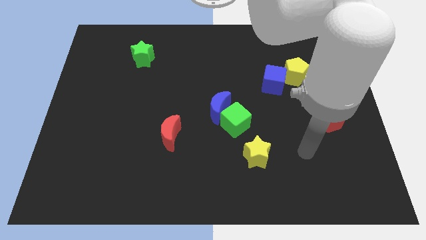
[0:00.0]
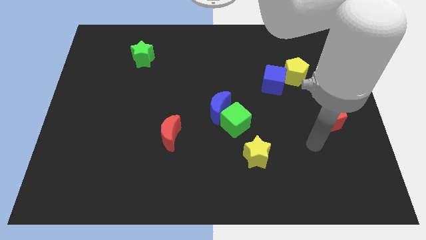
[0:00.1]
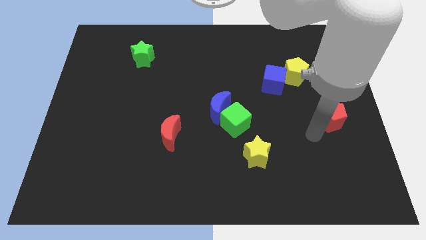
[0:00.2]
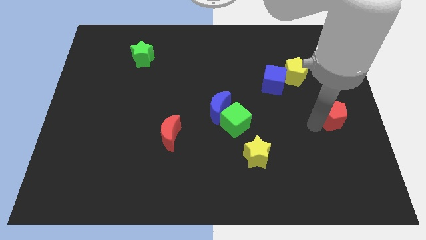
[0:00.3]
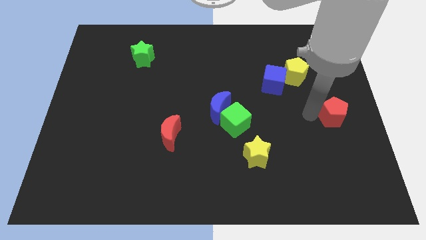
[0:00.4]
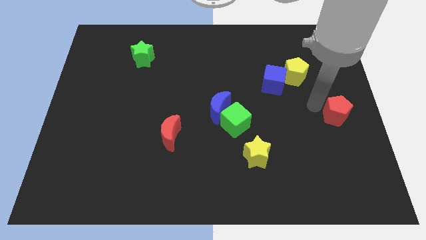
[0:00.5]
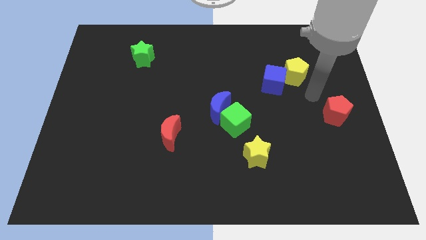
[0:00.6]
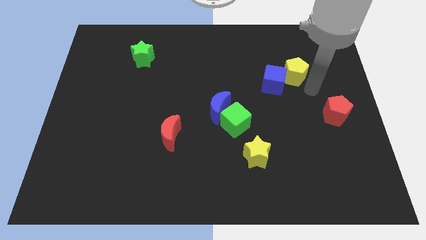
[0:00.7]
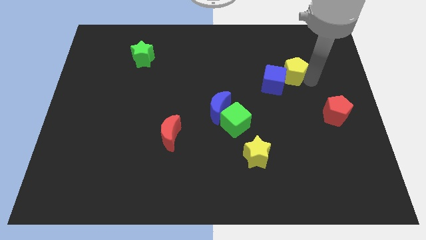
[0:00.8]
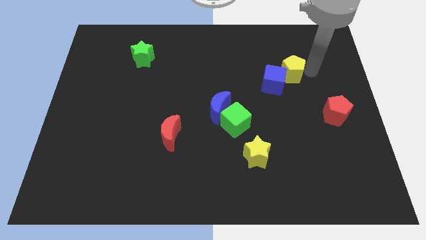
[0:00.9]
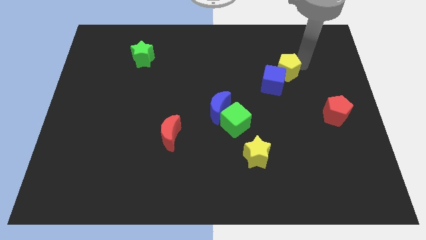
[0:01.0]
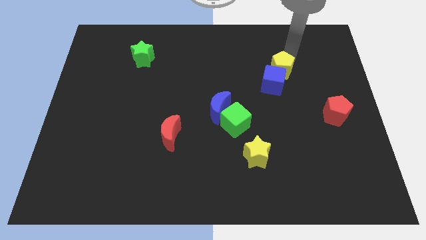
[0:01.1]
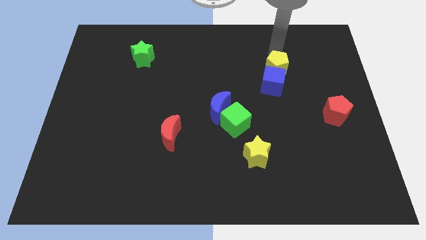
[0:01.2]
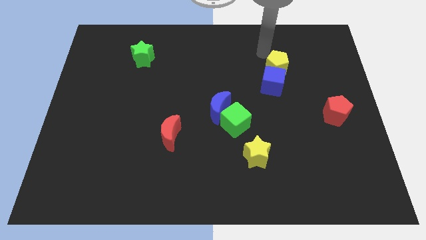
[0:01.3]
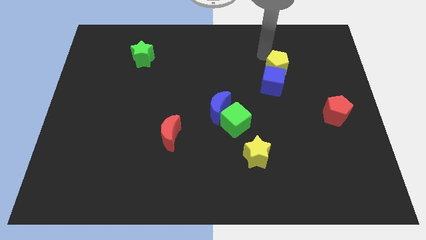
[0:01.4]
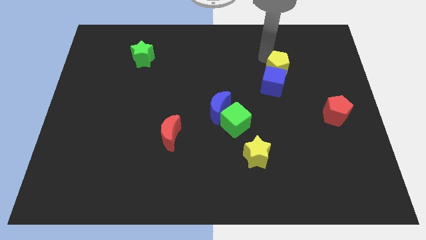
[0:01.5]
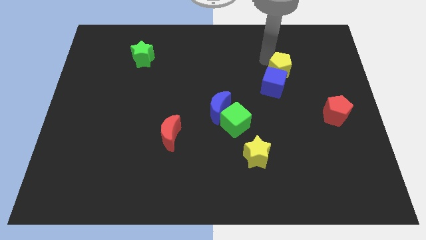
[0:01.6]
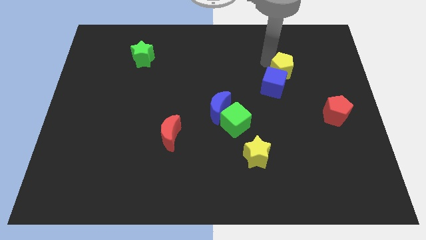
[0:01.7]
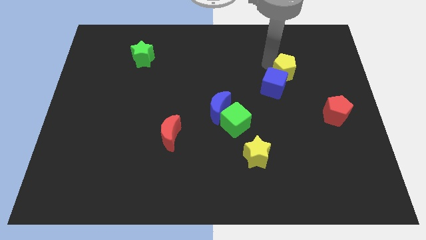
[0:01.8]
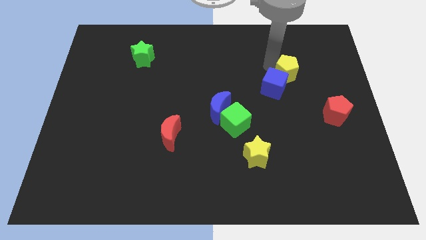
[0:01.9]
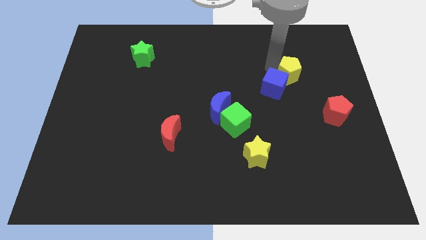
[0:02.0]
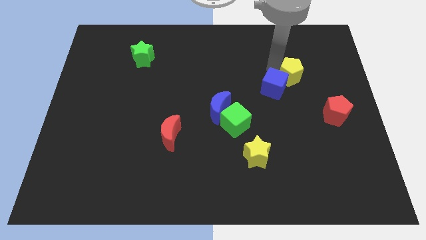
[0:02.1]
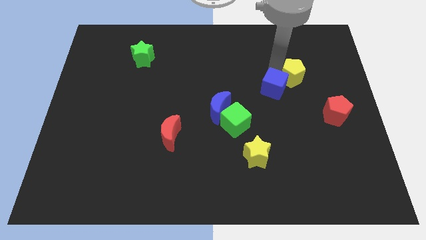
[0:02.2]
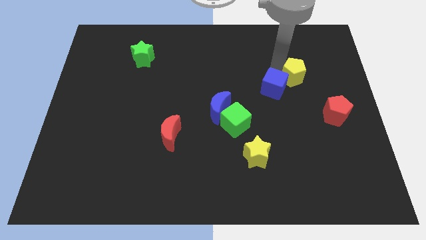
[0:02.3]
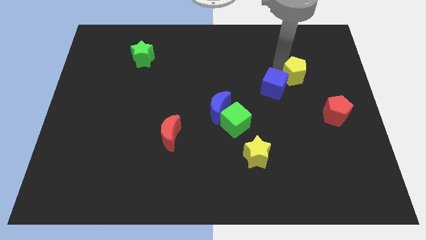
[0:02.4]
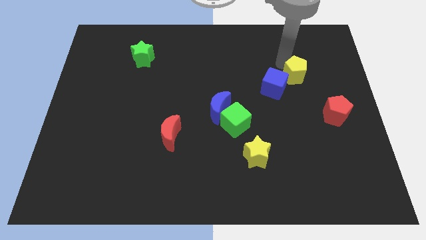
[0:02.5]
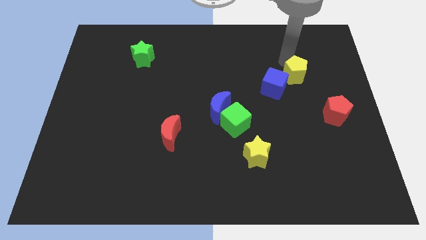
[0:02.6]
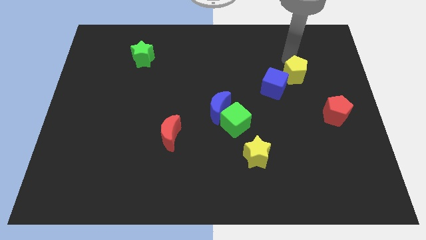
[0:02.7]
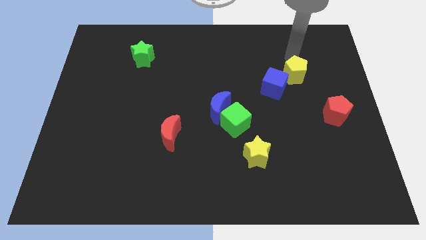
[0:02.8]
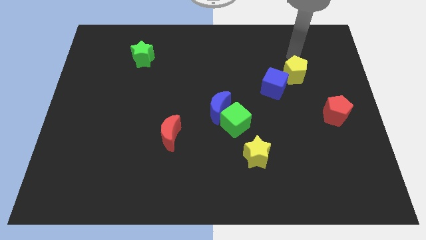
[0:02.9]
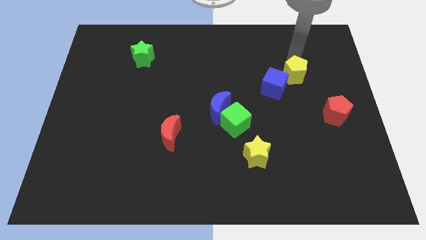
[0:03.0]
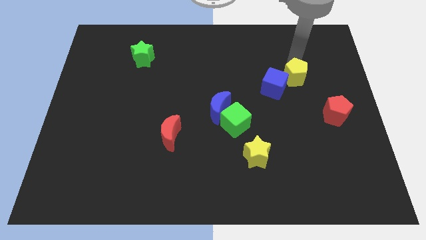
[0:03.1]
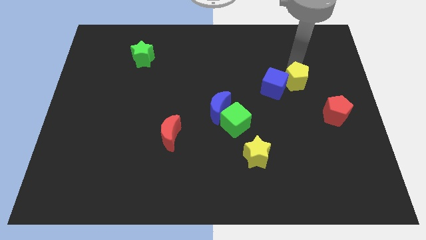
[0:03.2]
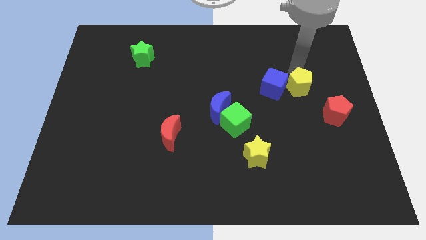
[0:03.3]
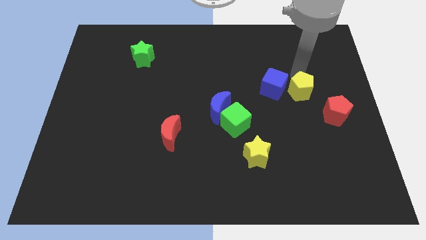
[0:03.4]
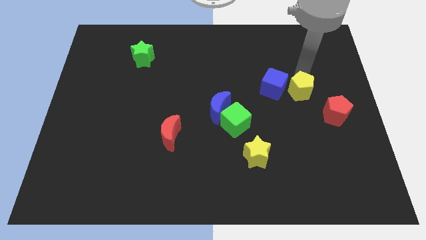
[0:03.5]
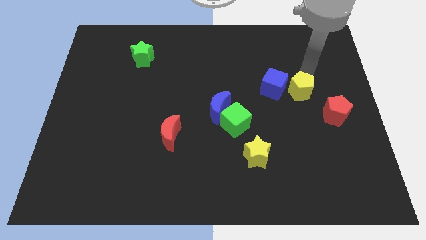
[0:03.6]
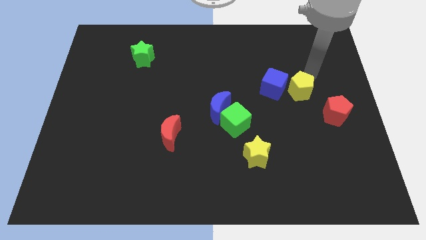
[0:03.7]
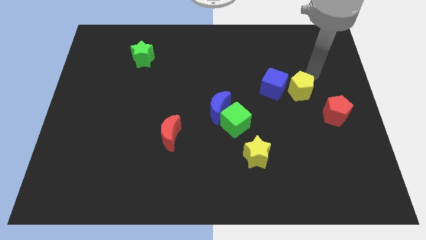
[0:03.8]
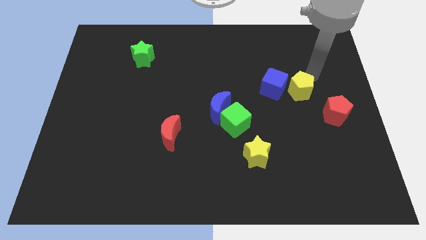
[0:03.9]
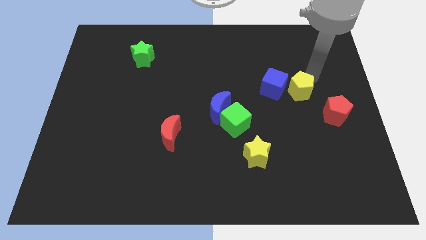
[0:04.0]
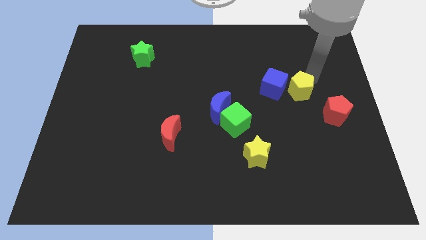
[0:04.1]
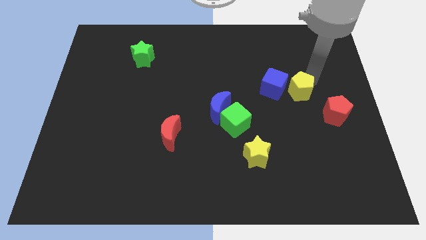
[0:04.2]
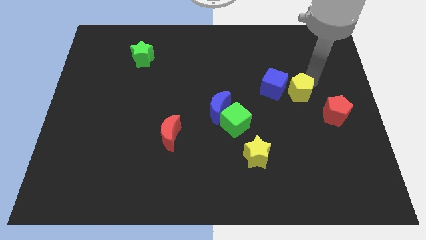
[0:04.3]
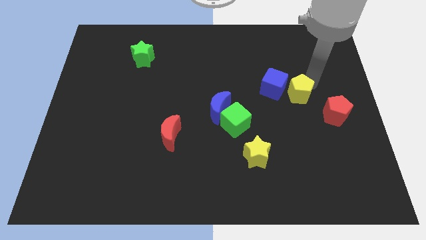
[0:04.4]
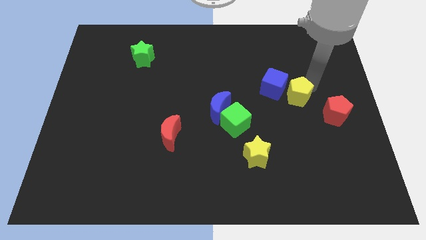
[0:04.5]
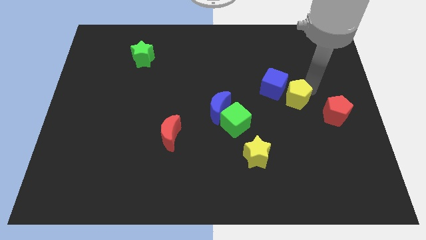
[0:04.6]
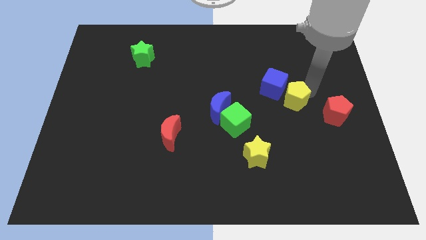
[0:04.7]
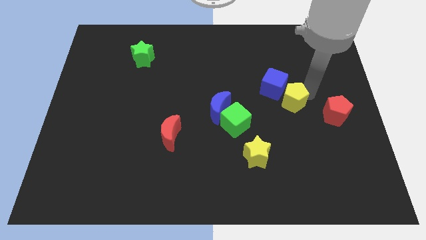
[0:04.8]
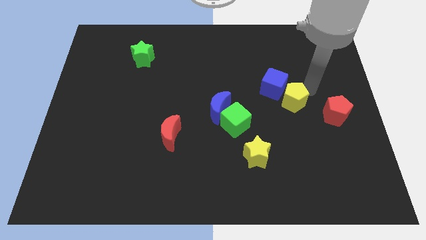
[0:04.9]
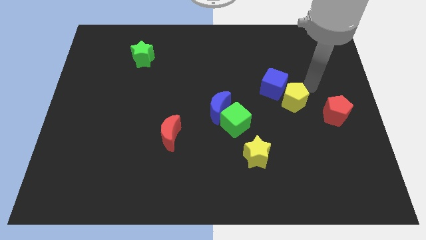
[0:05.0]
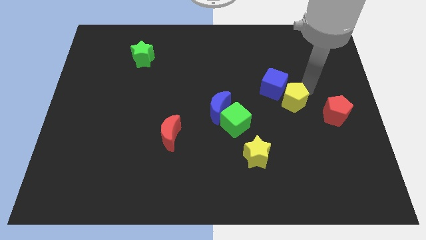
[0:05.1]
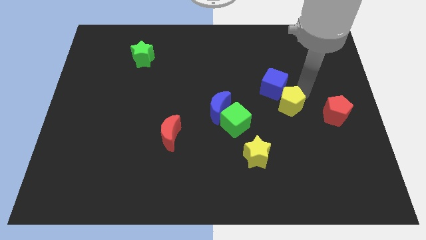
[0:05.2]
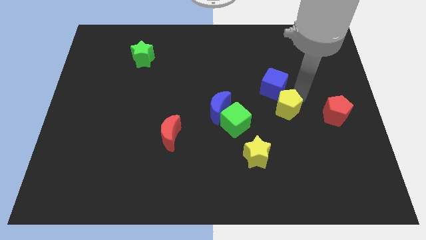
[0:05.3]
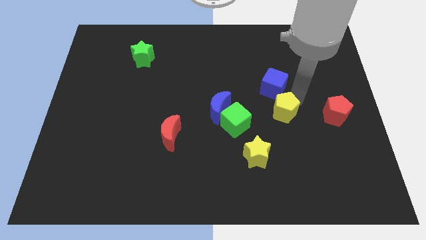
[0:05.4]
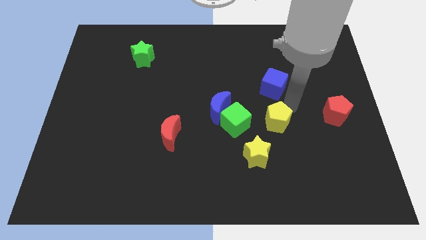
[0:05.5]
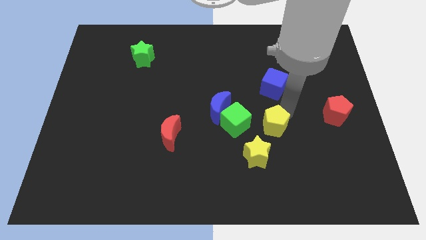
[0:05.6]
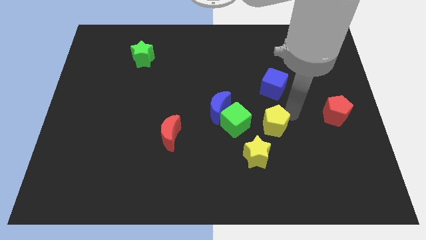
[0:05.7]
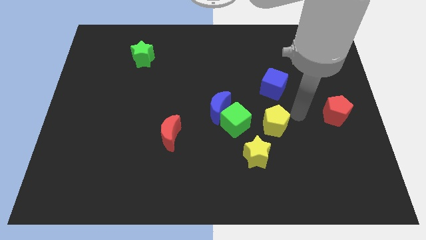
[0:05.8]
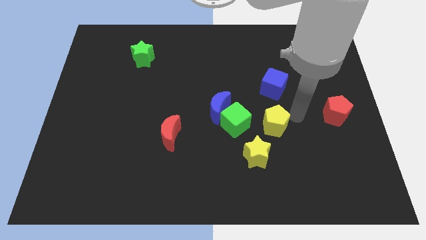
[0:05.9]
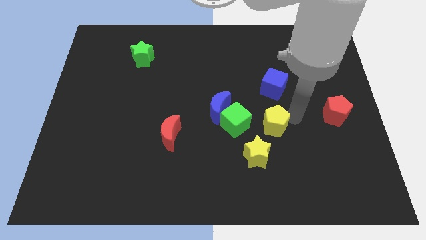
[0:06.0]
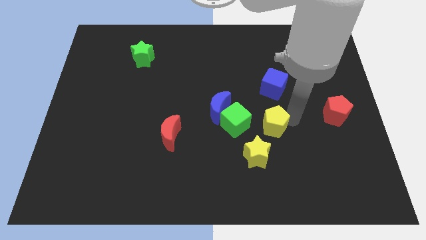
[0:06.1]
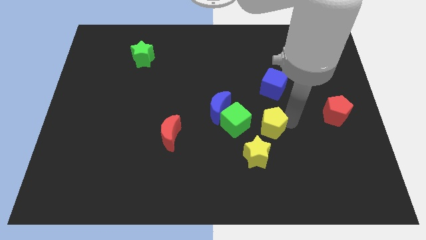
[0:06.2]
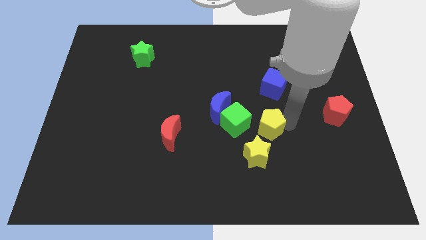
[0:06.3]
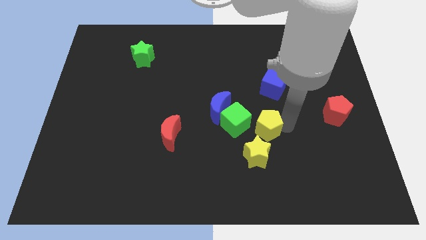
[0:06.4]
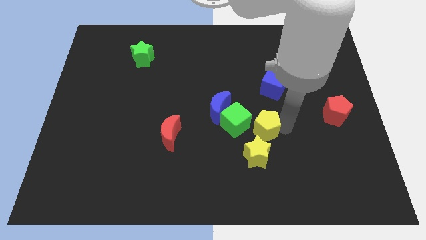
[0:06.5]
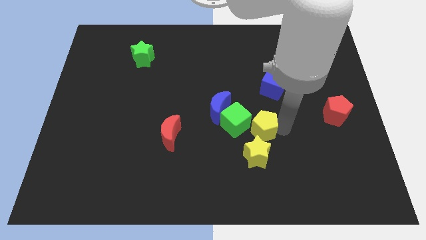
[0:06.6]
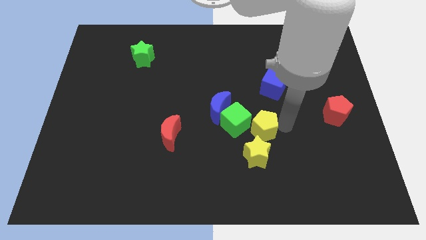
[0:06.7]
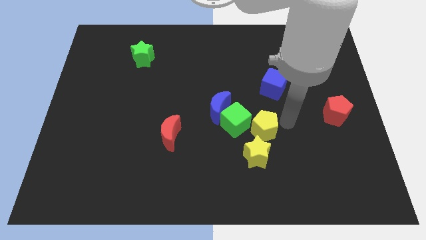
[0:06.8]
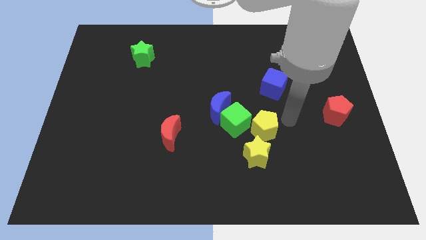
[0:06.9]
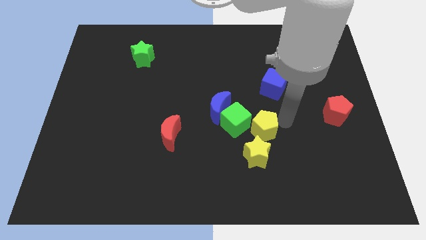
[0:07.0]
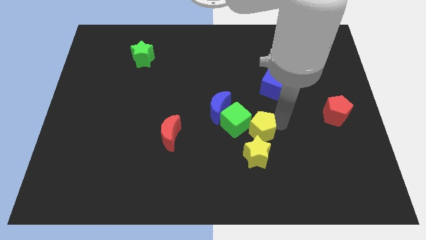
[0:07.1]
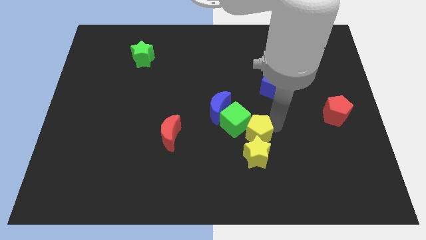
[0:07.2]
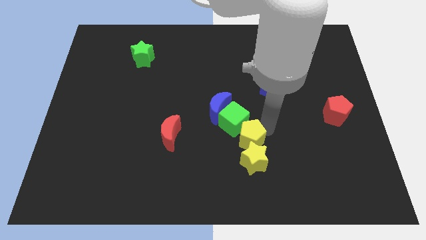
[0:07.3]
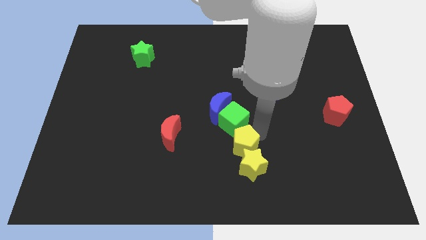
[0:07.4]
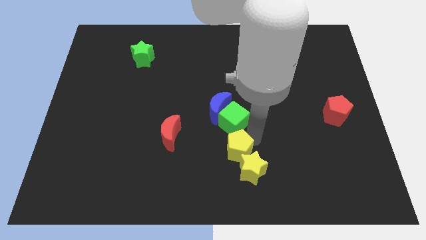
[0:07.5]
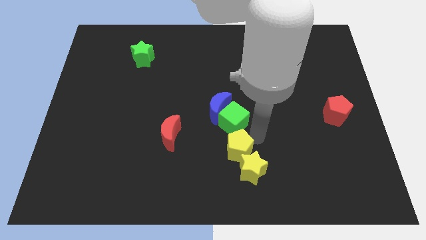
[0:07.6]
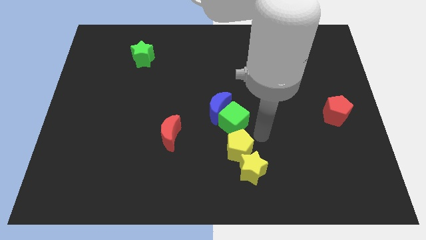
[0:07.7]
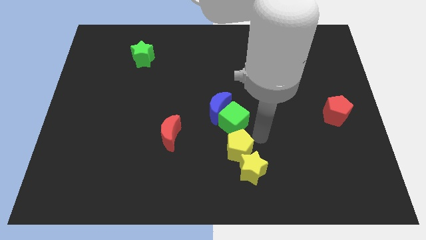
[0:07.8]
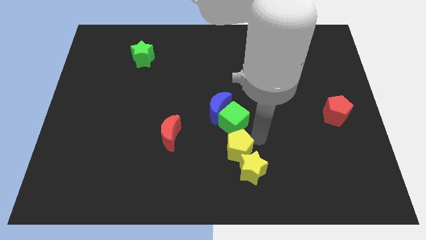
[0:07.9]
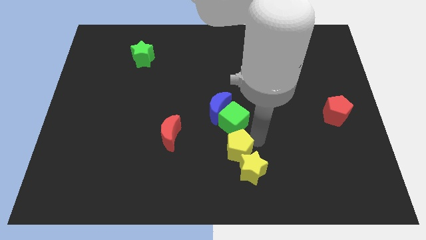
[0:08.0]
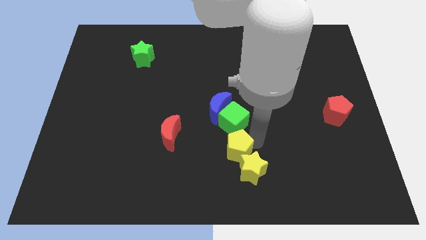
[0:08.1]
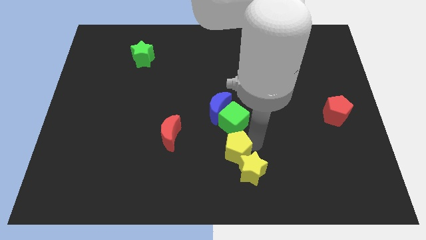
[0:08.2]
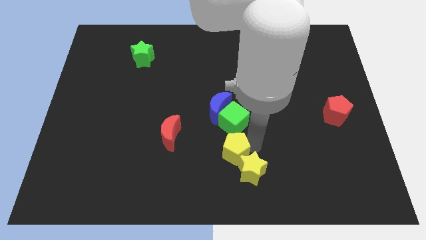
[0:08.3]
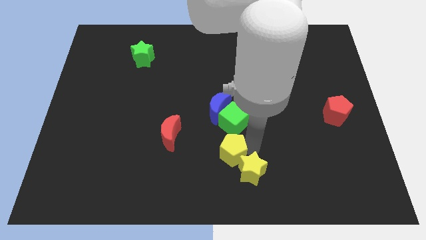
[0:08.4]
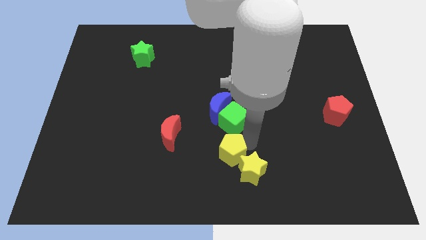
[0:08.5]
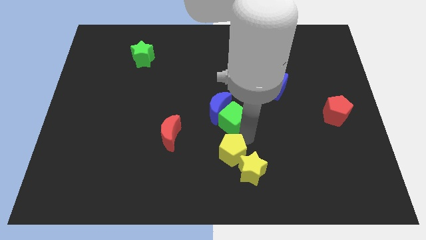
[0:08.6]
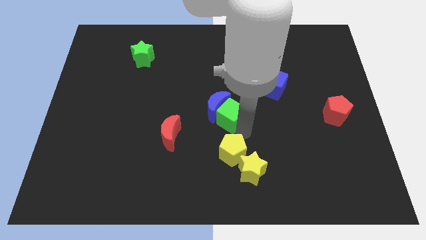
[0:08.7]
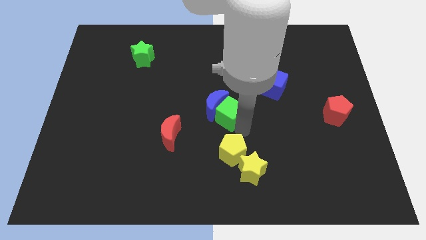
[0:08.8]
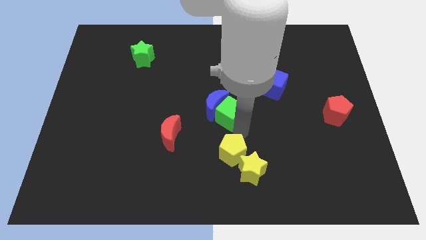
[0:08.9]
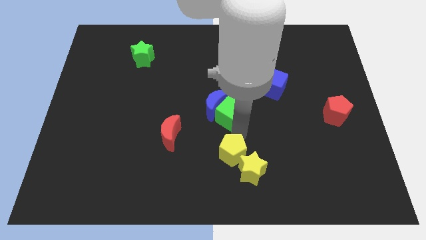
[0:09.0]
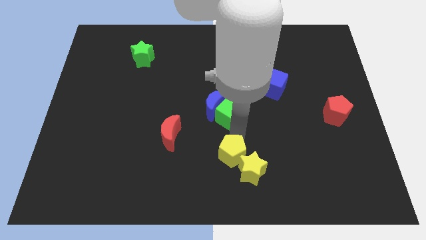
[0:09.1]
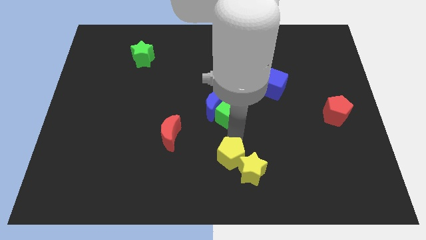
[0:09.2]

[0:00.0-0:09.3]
put the yellow pentagon to the bottom
